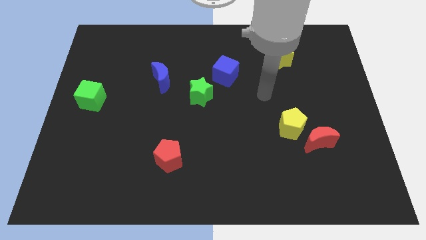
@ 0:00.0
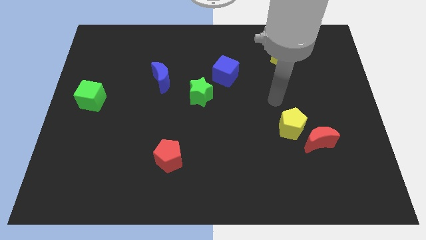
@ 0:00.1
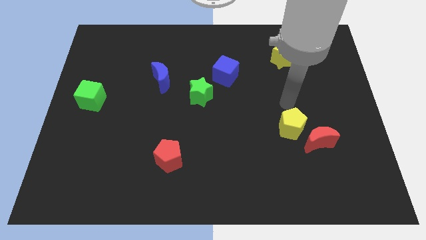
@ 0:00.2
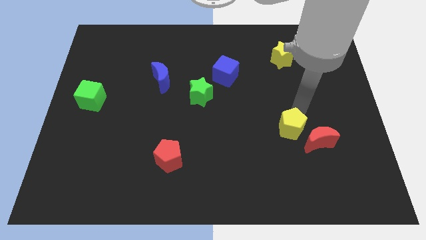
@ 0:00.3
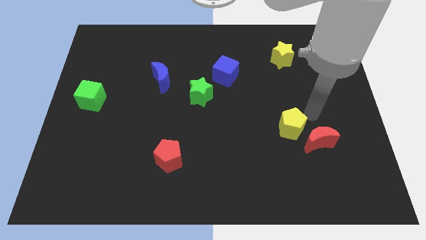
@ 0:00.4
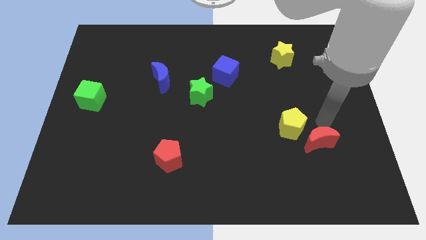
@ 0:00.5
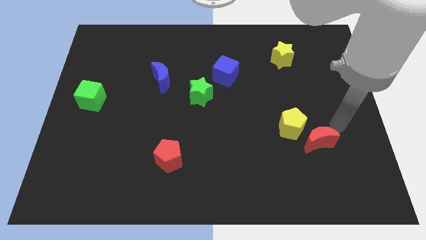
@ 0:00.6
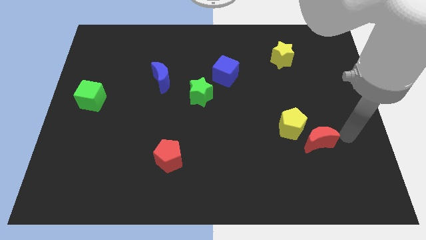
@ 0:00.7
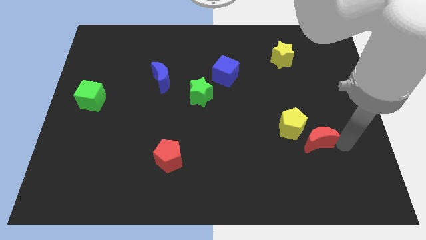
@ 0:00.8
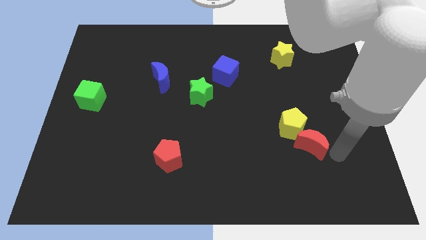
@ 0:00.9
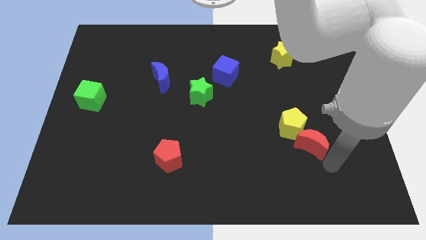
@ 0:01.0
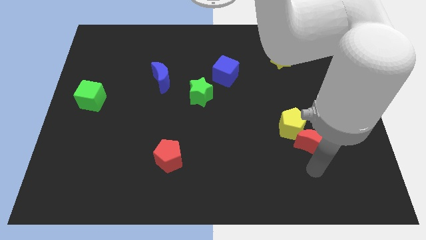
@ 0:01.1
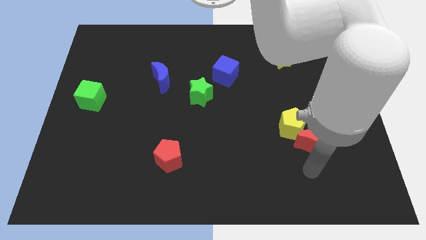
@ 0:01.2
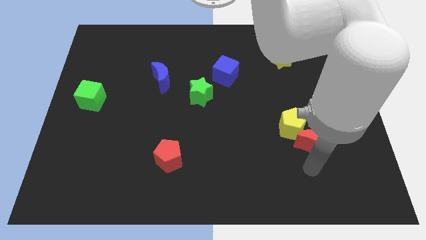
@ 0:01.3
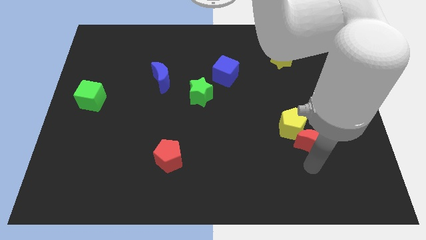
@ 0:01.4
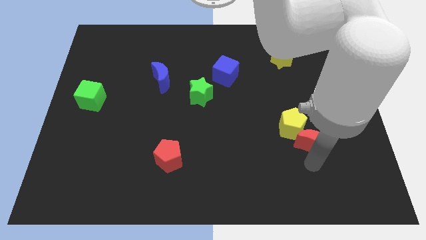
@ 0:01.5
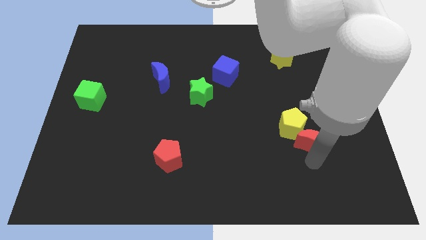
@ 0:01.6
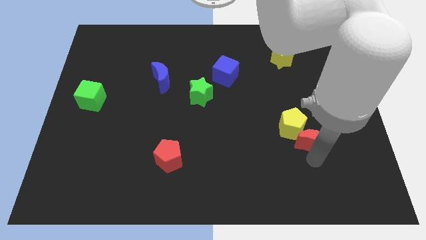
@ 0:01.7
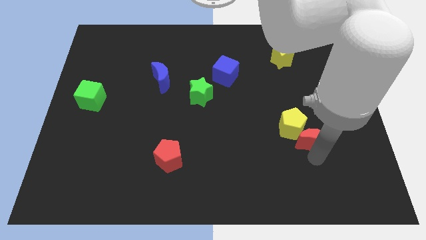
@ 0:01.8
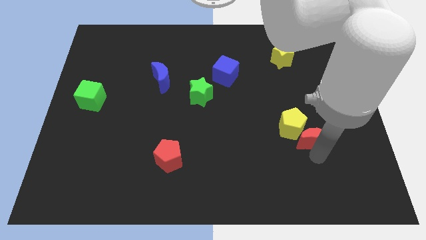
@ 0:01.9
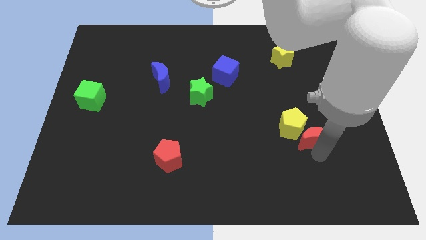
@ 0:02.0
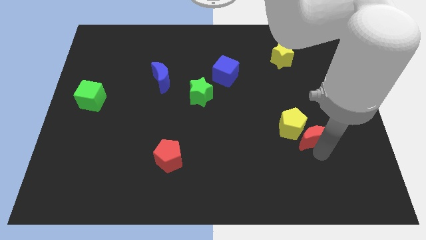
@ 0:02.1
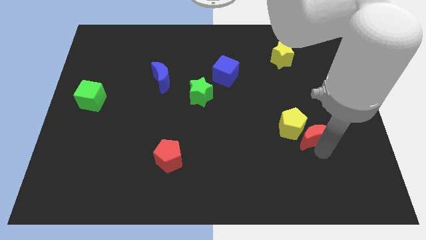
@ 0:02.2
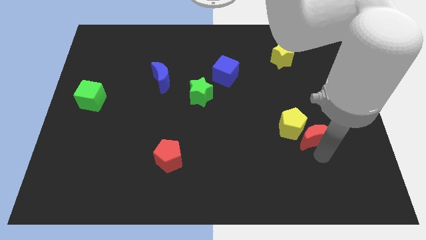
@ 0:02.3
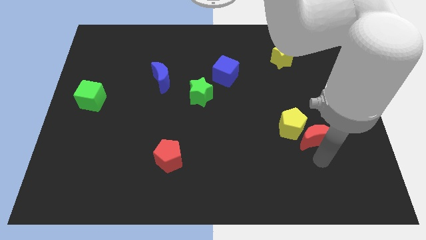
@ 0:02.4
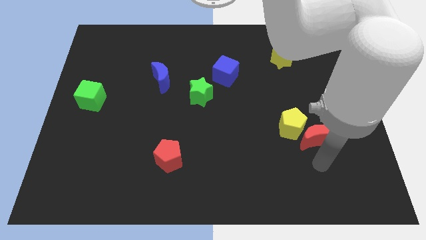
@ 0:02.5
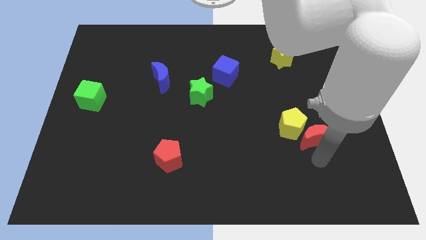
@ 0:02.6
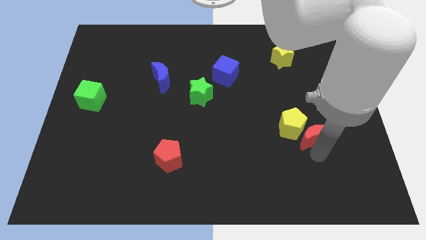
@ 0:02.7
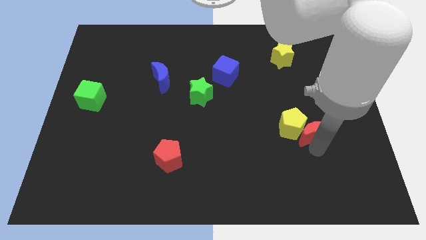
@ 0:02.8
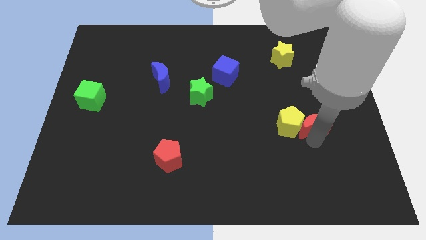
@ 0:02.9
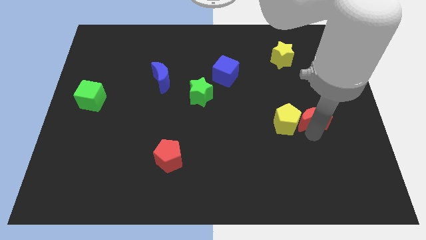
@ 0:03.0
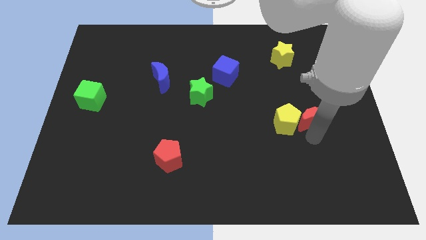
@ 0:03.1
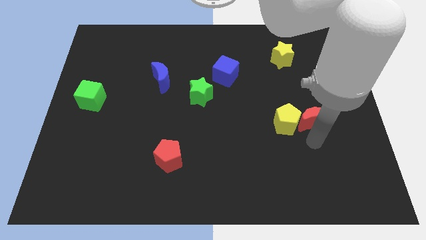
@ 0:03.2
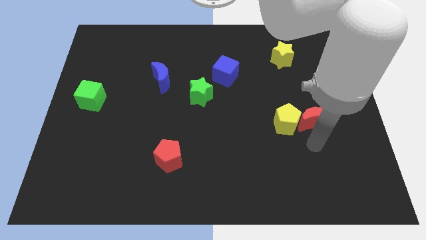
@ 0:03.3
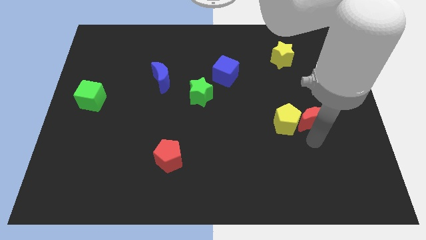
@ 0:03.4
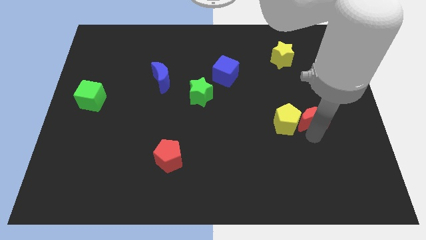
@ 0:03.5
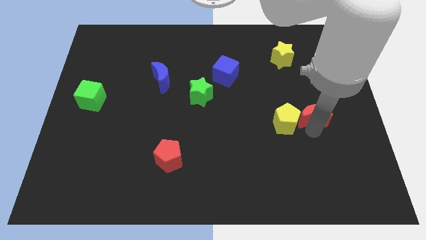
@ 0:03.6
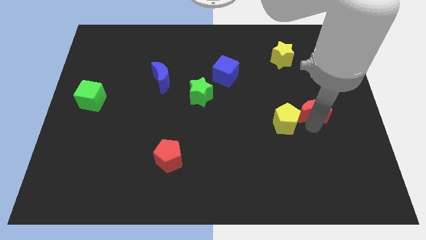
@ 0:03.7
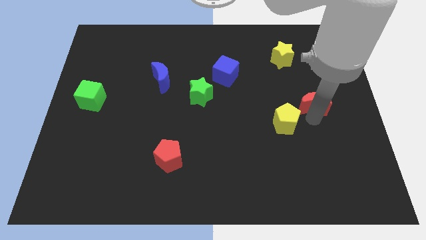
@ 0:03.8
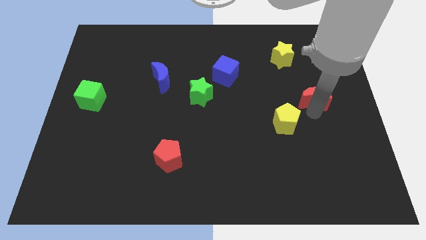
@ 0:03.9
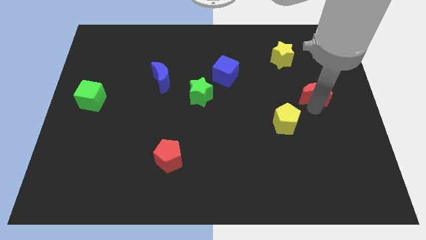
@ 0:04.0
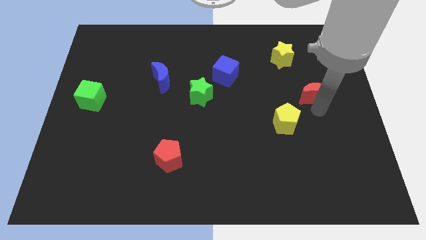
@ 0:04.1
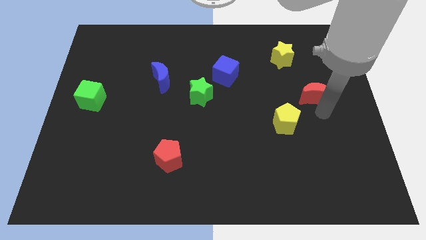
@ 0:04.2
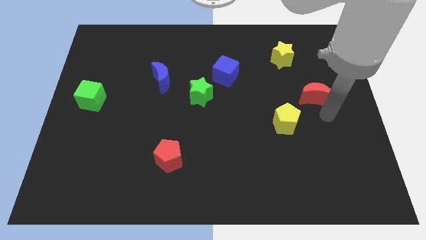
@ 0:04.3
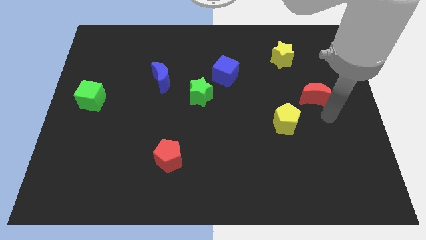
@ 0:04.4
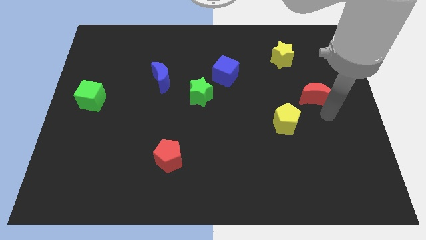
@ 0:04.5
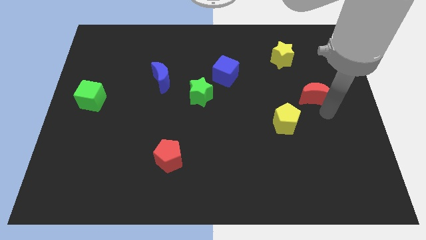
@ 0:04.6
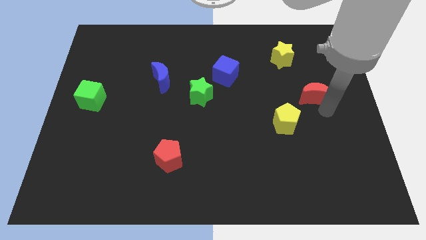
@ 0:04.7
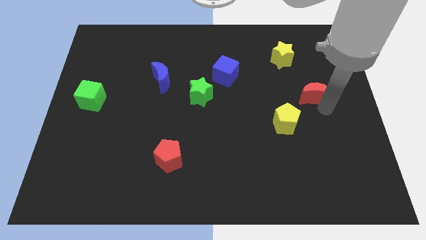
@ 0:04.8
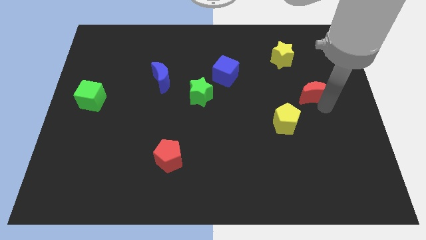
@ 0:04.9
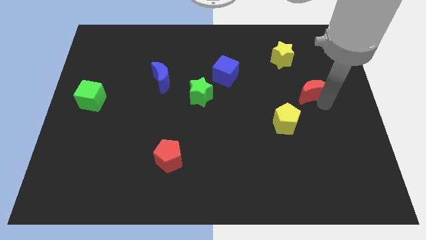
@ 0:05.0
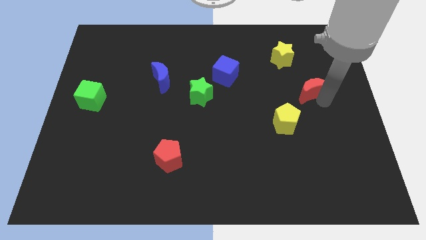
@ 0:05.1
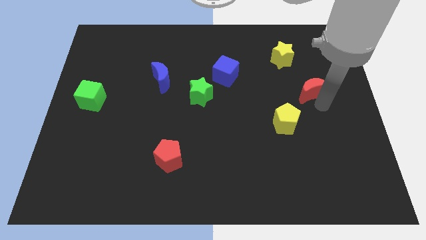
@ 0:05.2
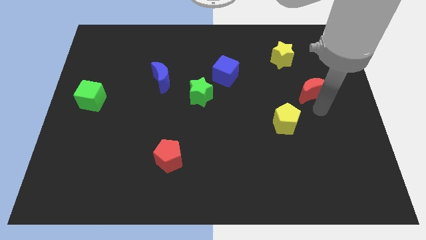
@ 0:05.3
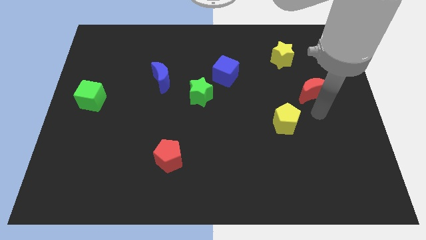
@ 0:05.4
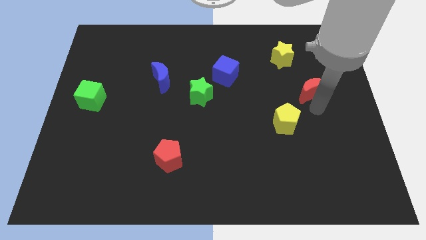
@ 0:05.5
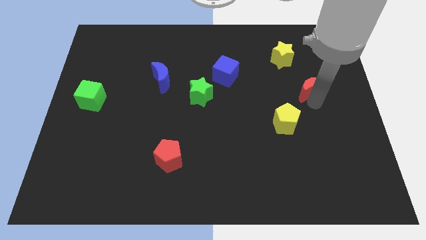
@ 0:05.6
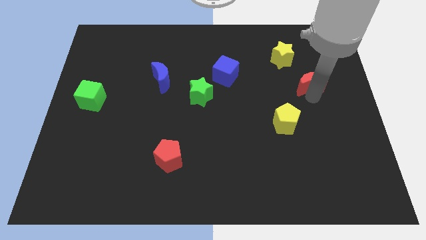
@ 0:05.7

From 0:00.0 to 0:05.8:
slide the red moon diagonally down and to the right of the yellow star

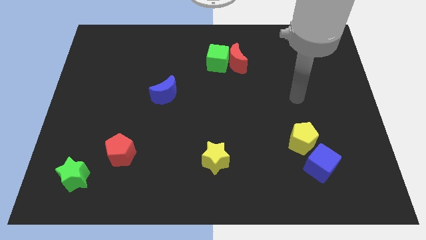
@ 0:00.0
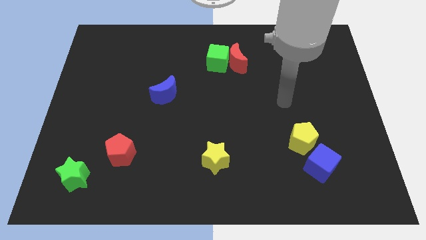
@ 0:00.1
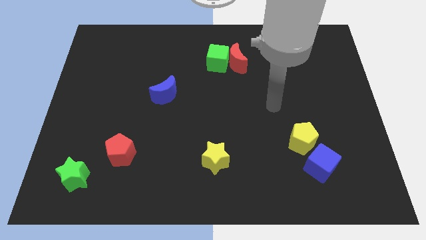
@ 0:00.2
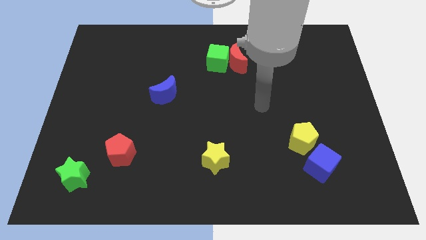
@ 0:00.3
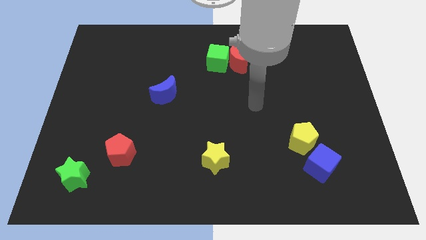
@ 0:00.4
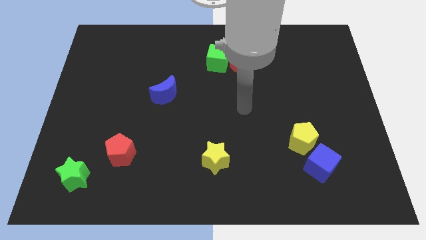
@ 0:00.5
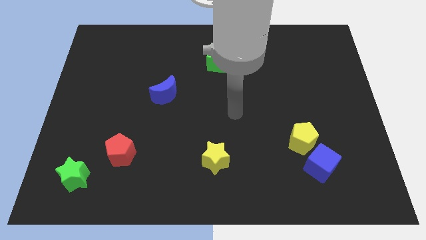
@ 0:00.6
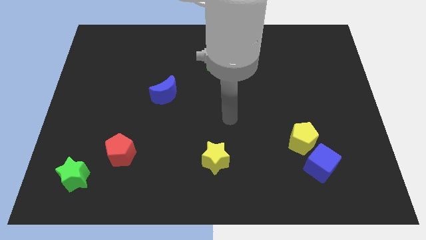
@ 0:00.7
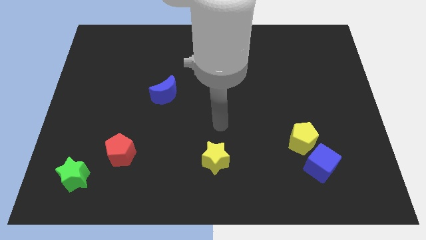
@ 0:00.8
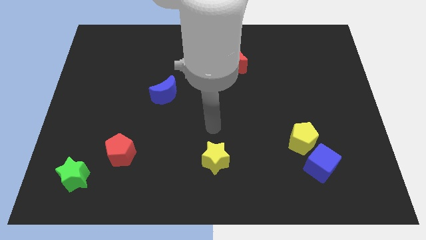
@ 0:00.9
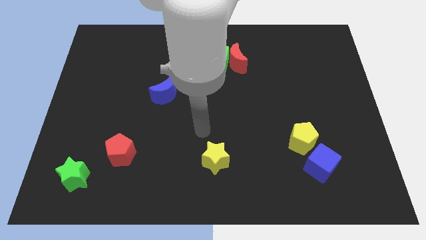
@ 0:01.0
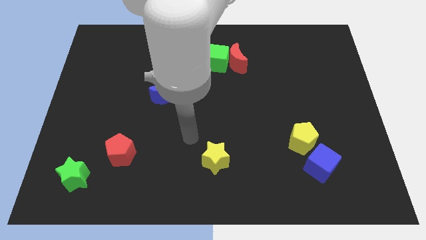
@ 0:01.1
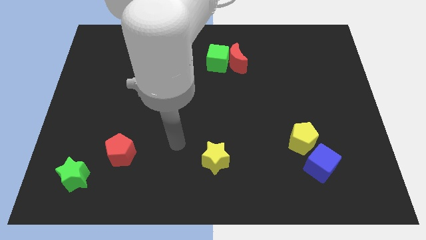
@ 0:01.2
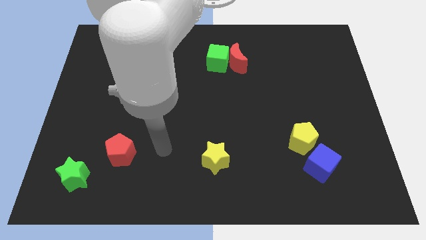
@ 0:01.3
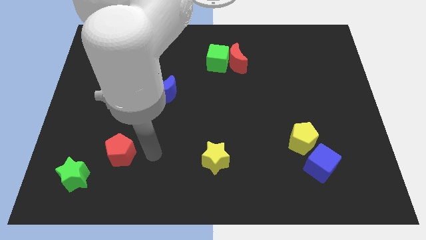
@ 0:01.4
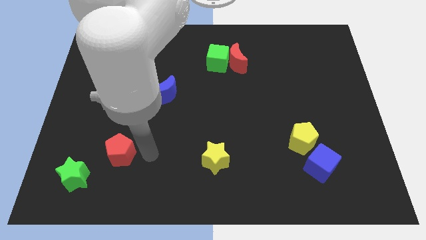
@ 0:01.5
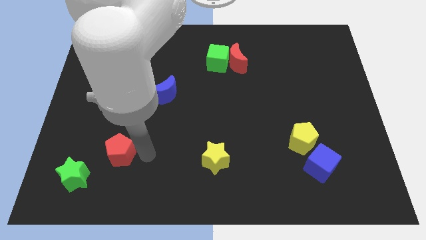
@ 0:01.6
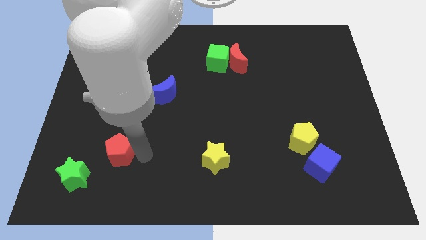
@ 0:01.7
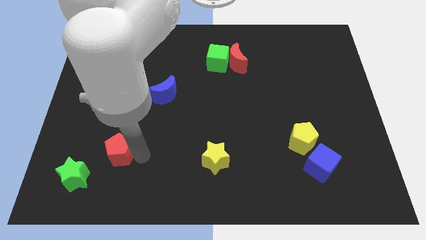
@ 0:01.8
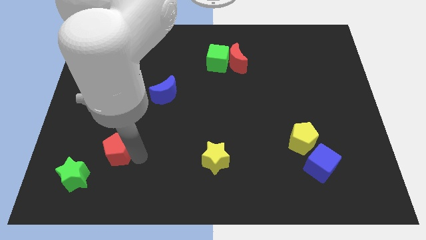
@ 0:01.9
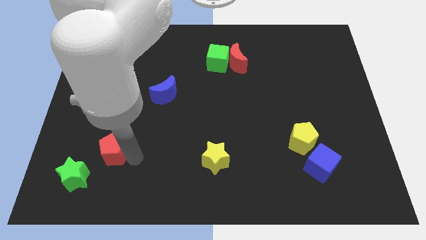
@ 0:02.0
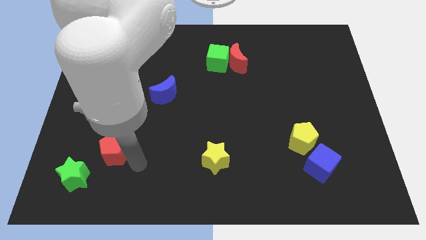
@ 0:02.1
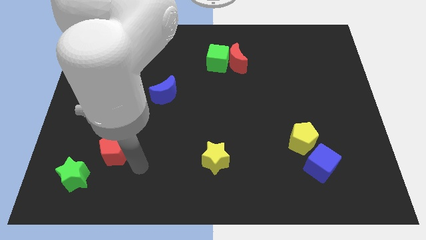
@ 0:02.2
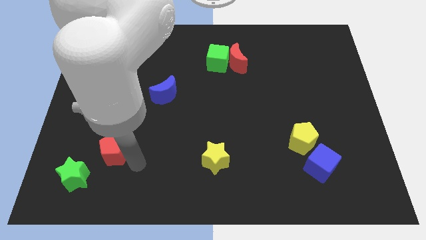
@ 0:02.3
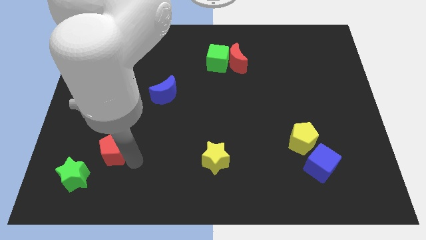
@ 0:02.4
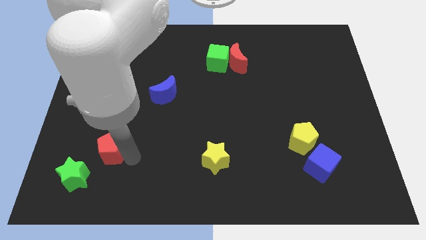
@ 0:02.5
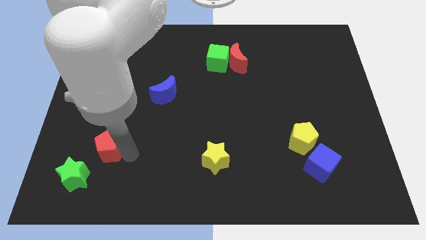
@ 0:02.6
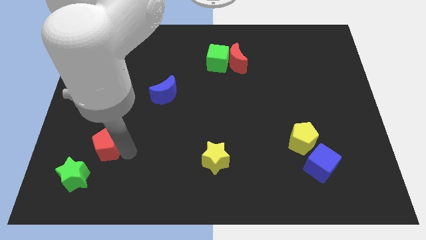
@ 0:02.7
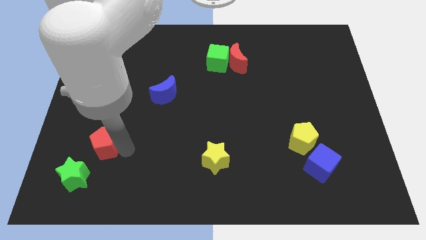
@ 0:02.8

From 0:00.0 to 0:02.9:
put the red pentagon to the top side of the green star
